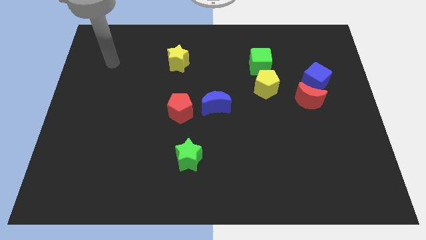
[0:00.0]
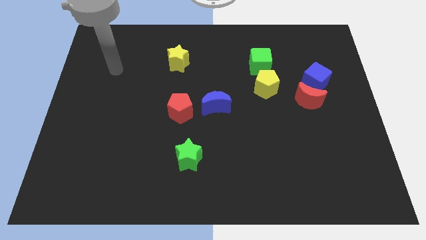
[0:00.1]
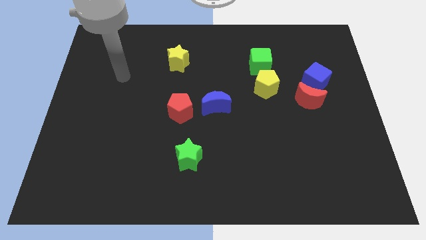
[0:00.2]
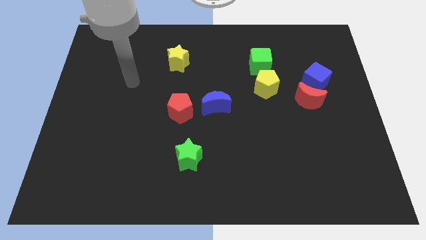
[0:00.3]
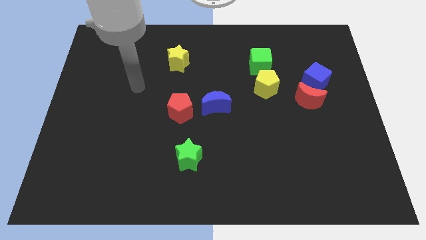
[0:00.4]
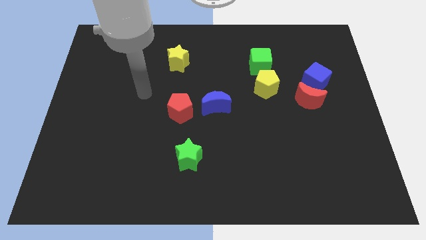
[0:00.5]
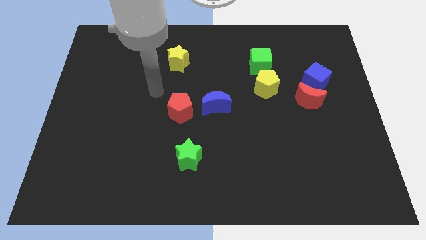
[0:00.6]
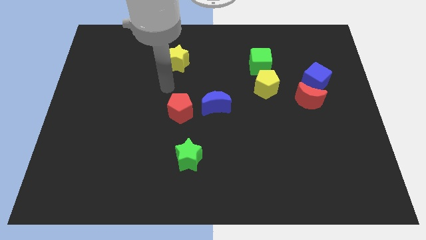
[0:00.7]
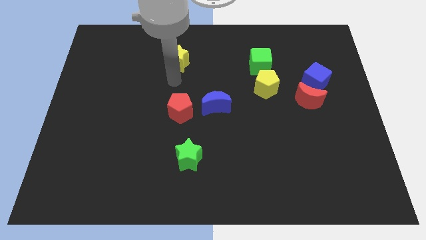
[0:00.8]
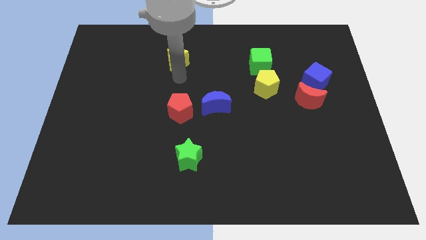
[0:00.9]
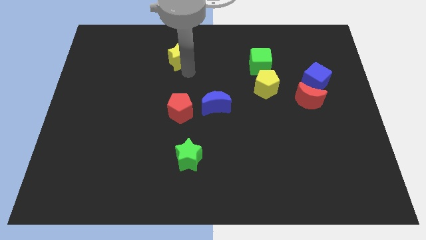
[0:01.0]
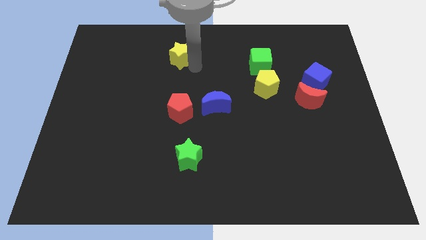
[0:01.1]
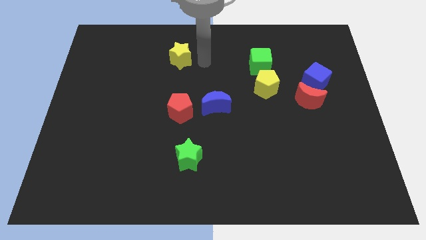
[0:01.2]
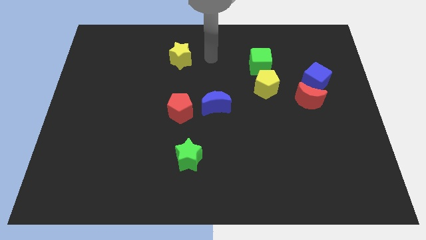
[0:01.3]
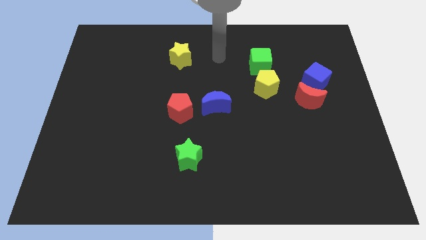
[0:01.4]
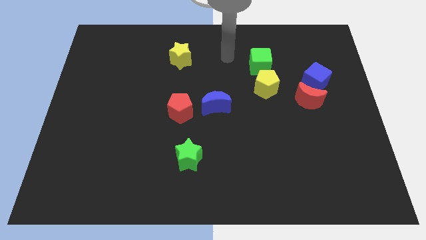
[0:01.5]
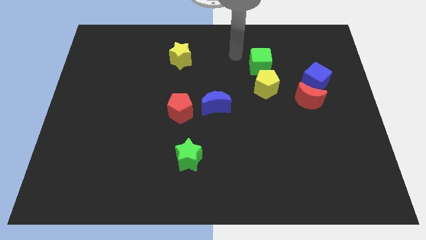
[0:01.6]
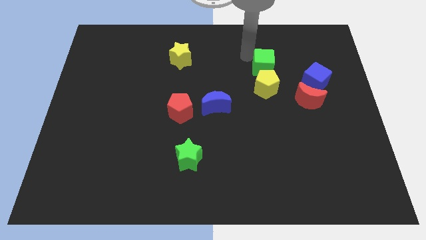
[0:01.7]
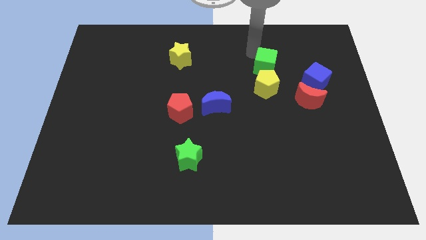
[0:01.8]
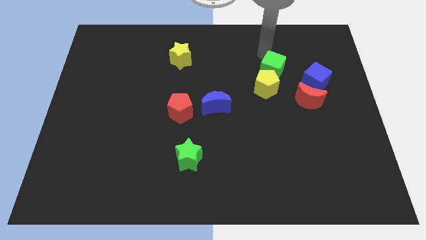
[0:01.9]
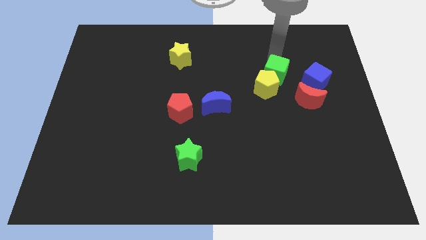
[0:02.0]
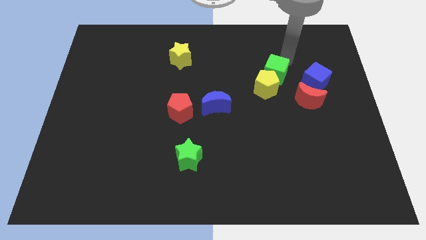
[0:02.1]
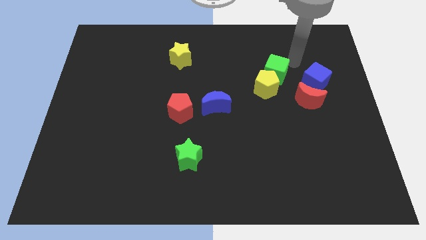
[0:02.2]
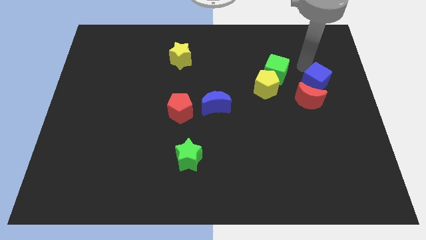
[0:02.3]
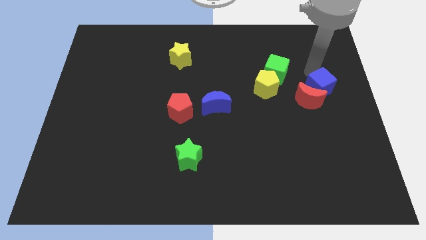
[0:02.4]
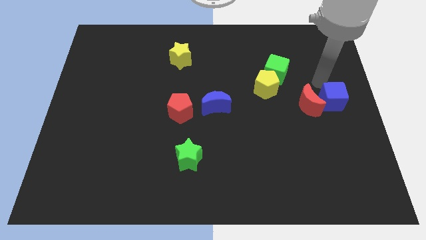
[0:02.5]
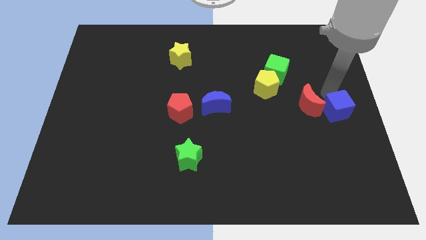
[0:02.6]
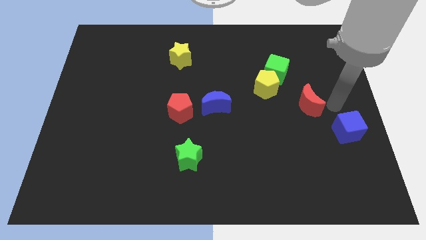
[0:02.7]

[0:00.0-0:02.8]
separate the red moon from the blue cube

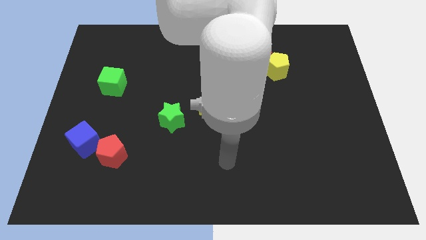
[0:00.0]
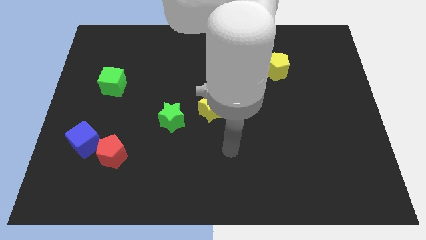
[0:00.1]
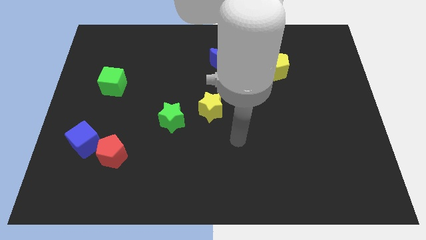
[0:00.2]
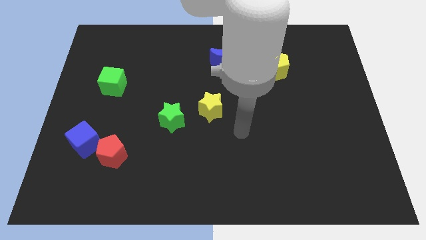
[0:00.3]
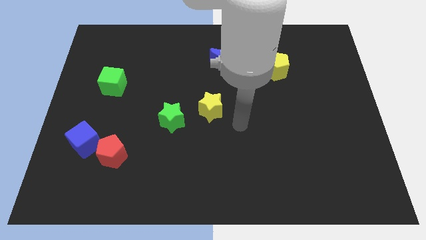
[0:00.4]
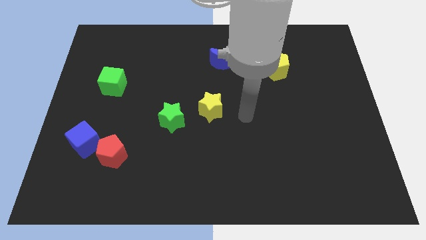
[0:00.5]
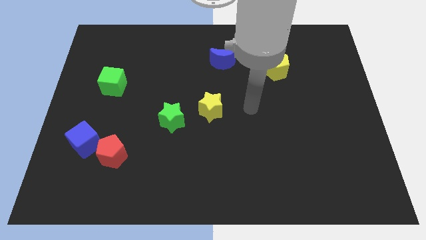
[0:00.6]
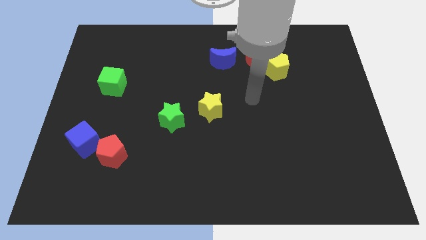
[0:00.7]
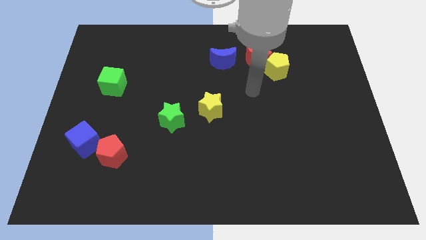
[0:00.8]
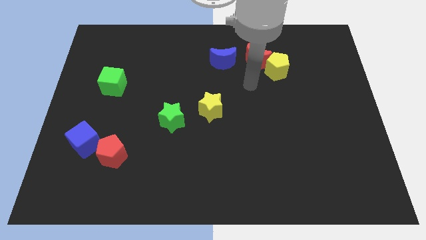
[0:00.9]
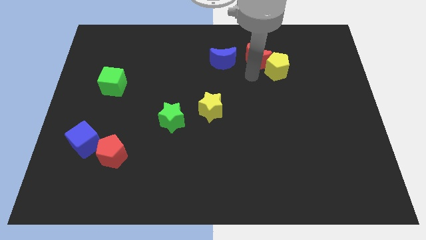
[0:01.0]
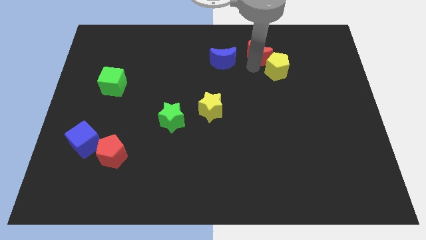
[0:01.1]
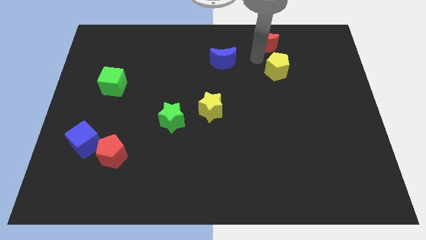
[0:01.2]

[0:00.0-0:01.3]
separate the yellow pentagon from the red moon

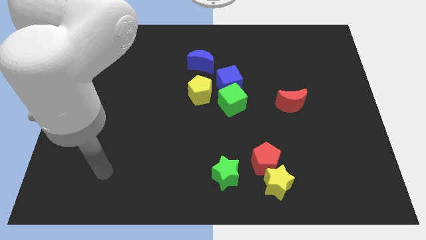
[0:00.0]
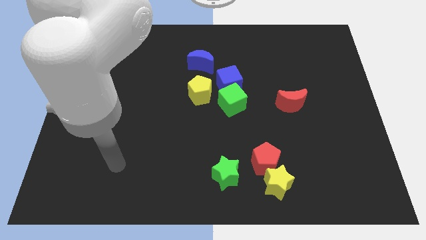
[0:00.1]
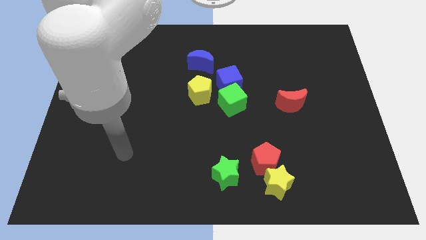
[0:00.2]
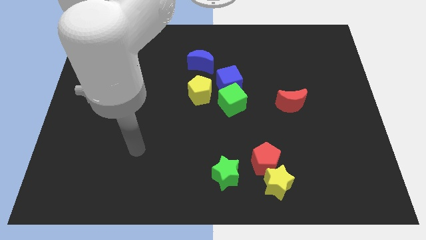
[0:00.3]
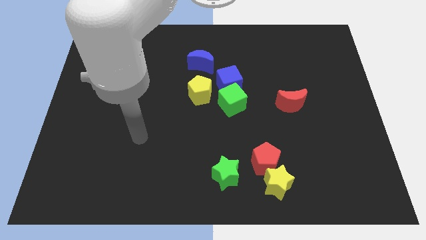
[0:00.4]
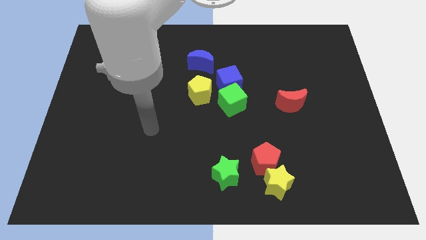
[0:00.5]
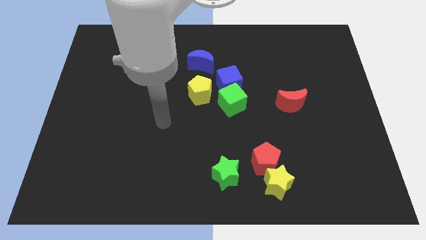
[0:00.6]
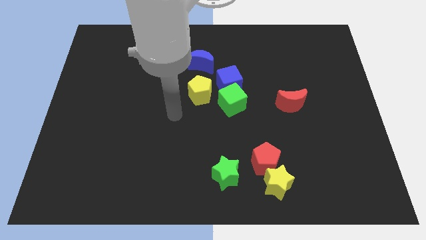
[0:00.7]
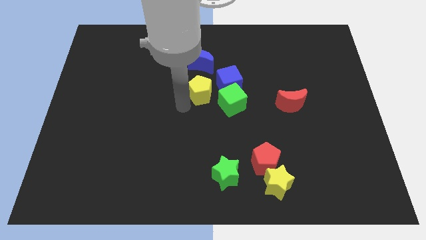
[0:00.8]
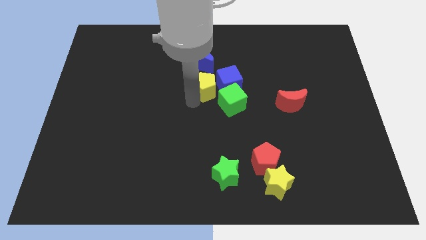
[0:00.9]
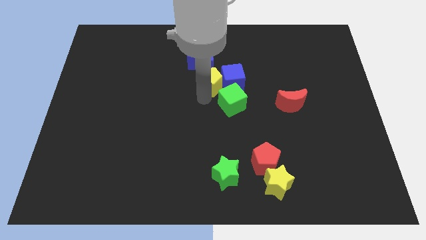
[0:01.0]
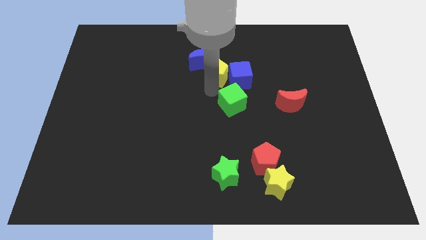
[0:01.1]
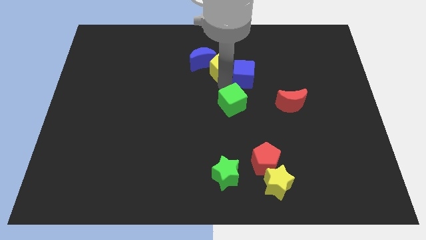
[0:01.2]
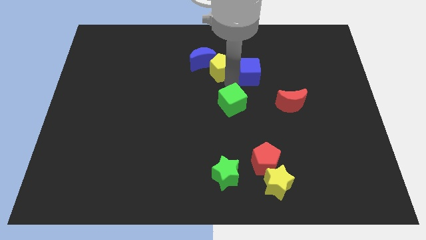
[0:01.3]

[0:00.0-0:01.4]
move the green cube away from the blue cube and yellow pentagon

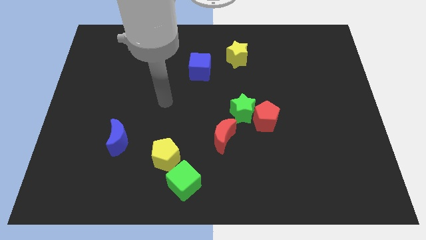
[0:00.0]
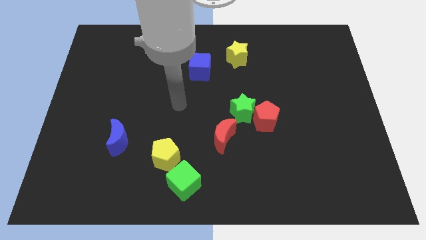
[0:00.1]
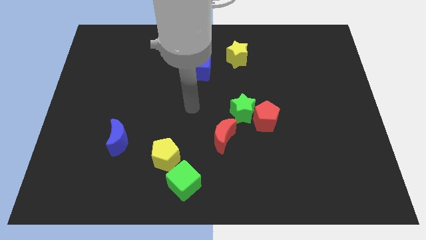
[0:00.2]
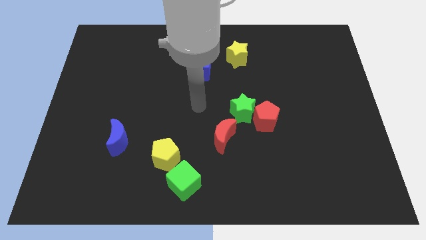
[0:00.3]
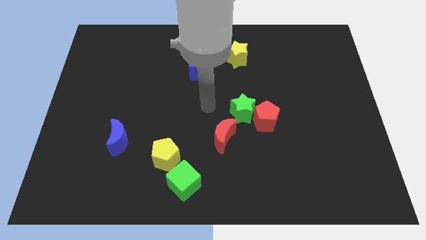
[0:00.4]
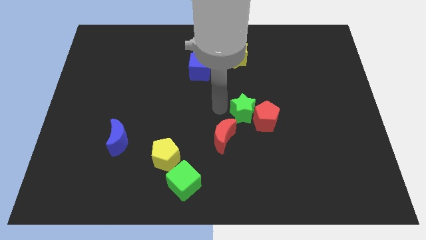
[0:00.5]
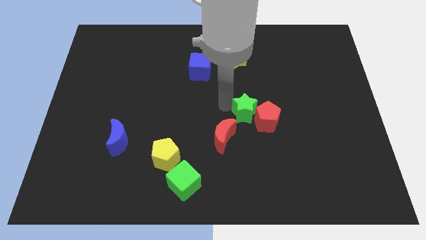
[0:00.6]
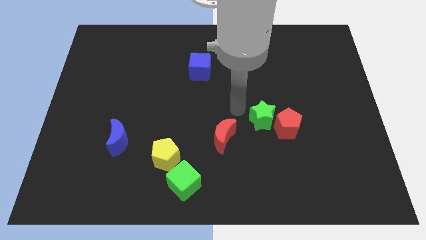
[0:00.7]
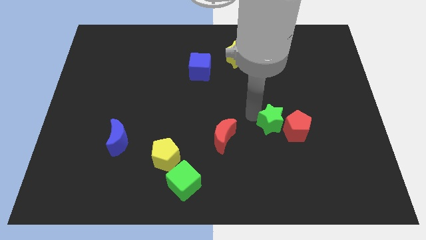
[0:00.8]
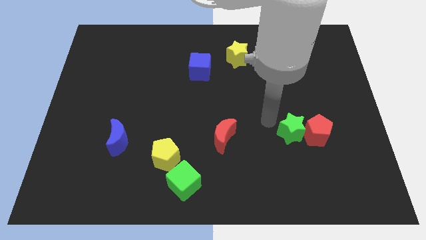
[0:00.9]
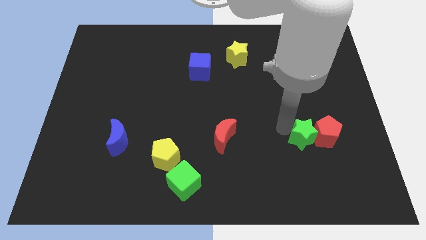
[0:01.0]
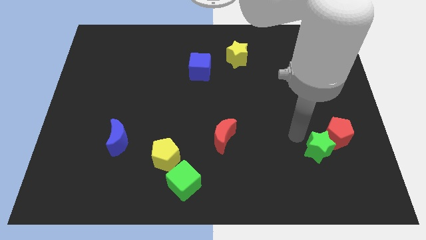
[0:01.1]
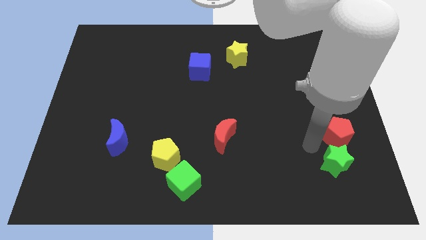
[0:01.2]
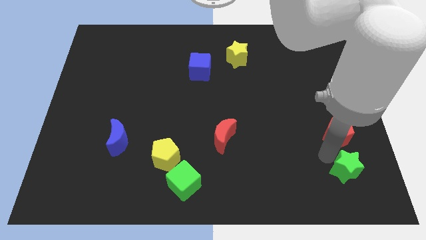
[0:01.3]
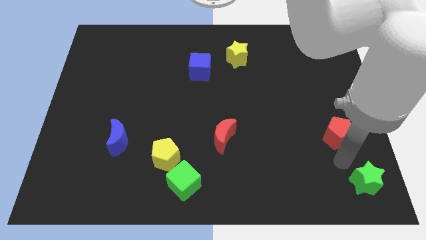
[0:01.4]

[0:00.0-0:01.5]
separate the red pentagon from the green star

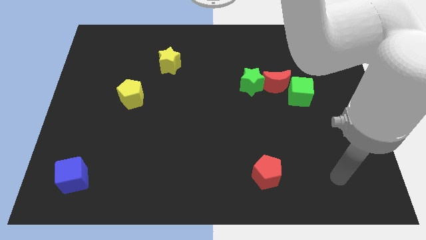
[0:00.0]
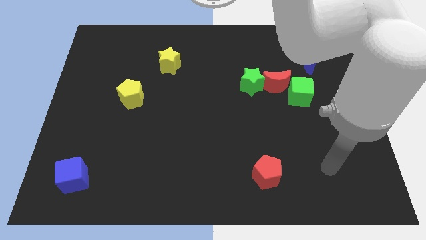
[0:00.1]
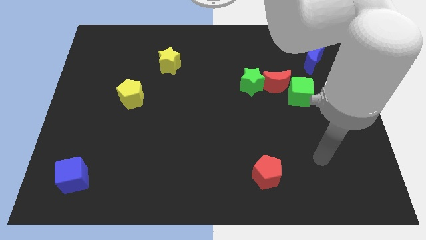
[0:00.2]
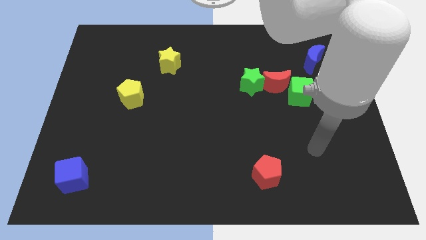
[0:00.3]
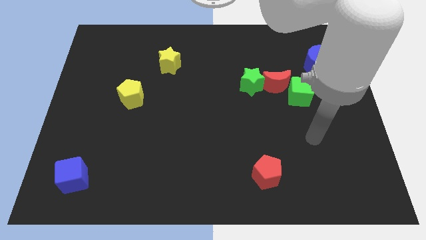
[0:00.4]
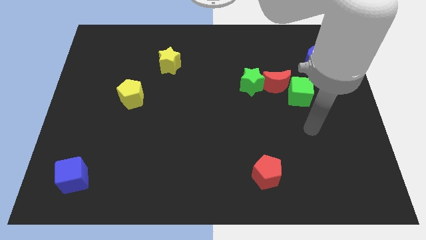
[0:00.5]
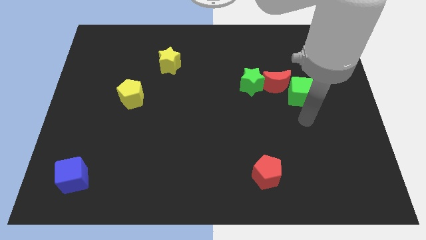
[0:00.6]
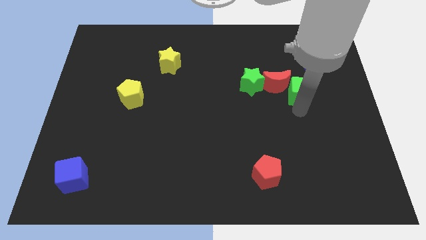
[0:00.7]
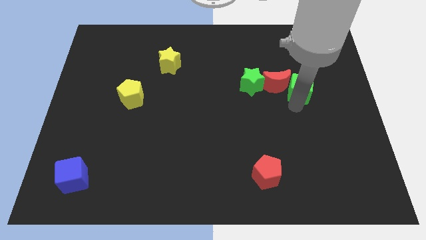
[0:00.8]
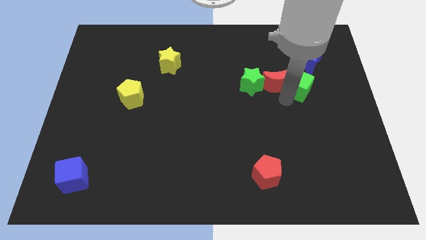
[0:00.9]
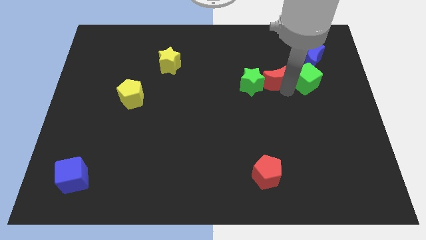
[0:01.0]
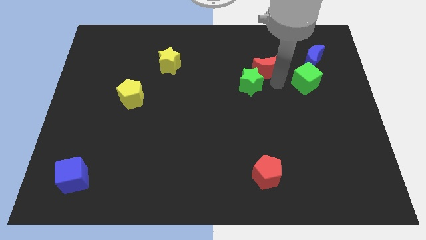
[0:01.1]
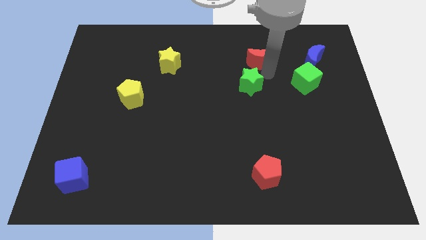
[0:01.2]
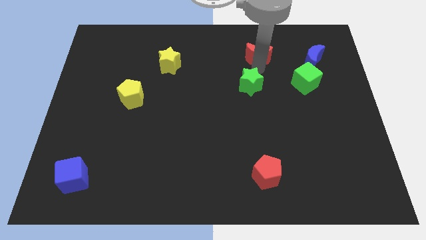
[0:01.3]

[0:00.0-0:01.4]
move the green star away from the red moon

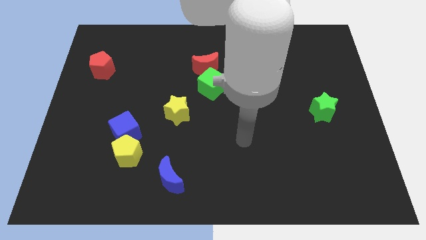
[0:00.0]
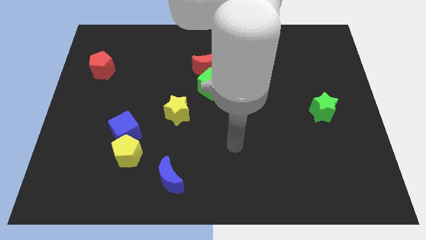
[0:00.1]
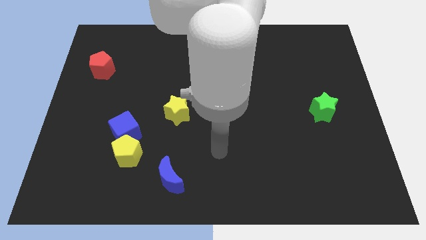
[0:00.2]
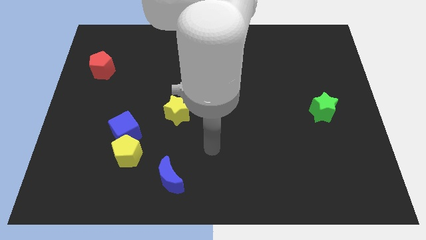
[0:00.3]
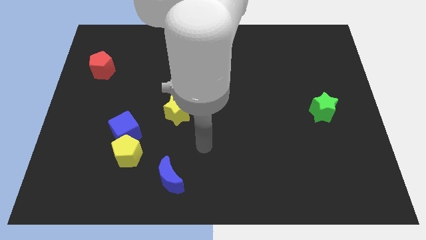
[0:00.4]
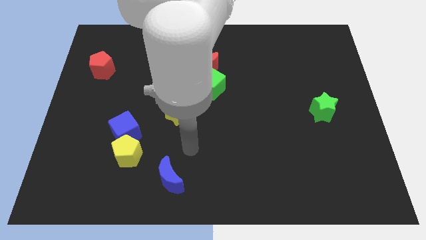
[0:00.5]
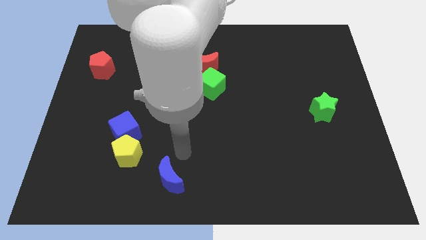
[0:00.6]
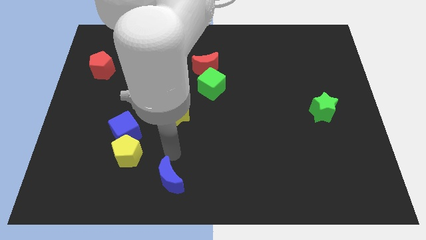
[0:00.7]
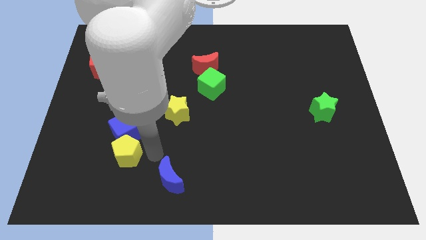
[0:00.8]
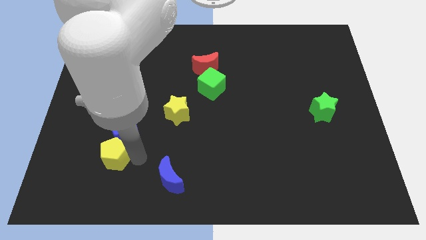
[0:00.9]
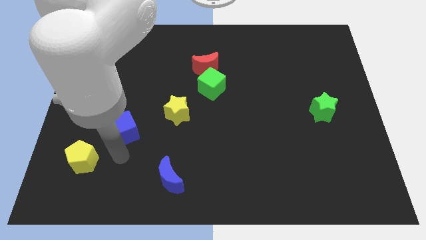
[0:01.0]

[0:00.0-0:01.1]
move the blue cube away from the yellow pentagon

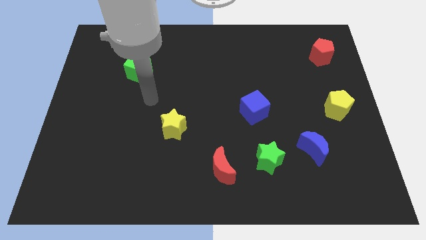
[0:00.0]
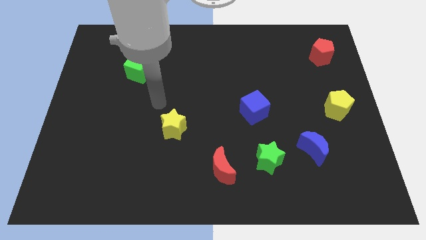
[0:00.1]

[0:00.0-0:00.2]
move the blue moon away from the green star
